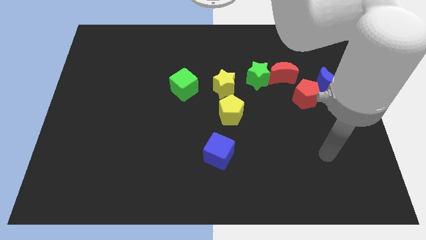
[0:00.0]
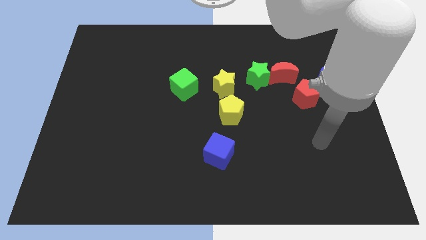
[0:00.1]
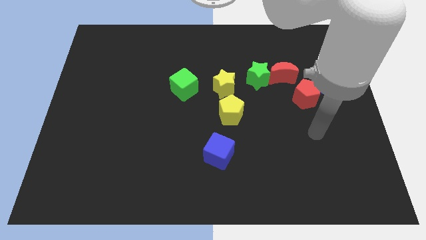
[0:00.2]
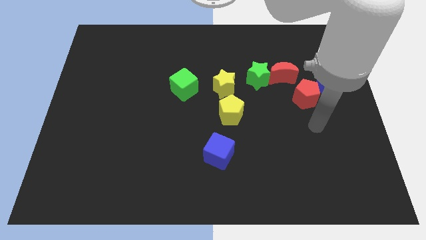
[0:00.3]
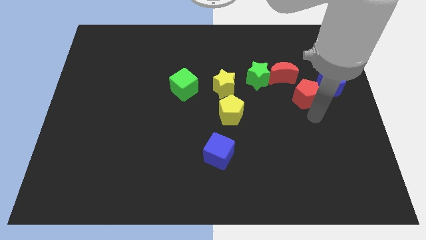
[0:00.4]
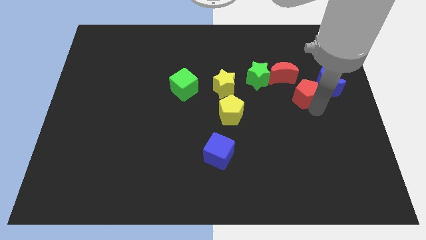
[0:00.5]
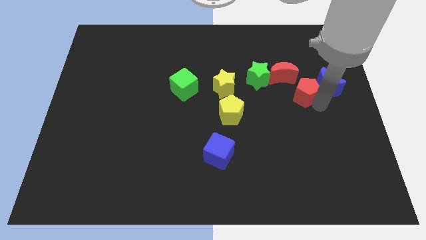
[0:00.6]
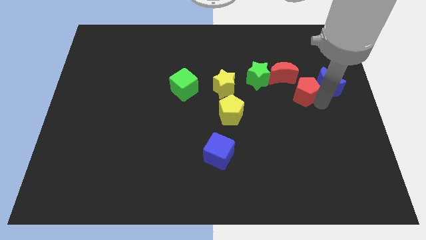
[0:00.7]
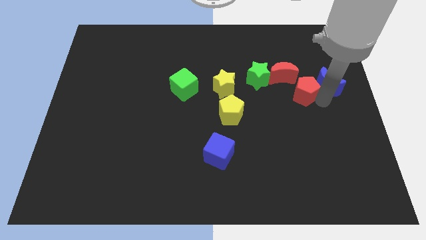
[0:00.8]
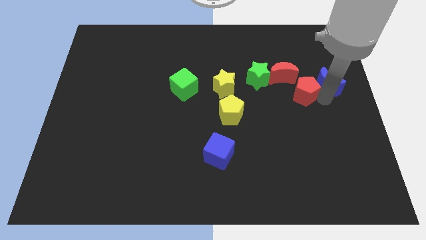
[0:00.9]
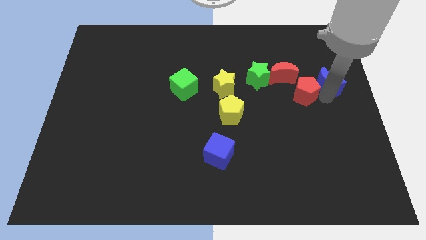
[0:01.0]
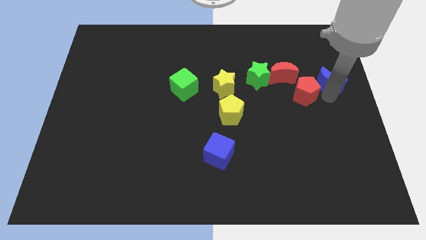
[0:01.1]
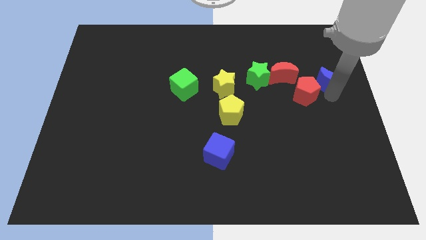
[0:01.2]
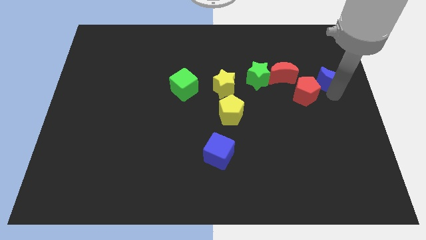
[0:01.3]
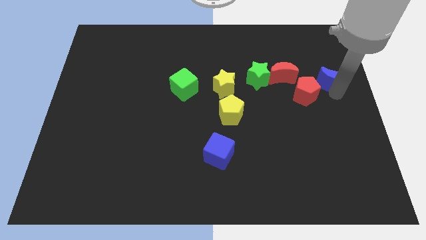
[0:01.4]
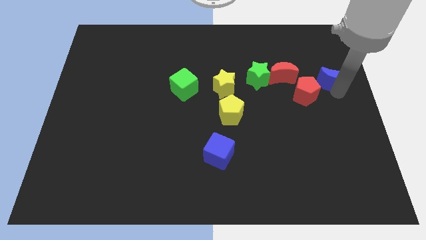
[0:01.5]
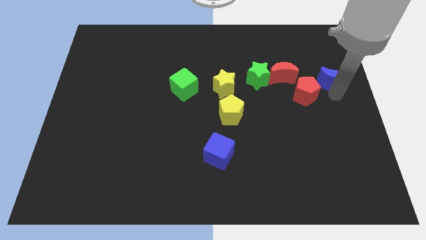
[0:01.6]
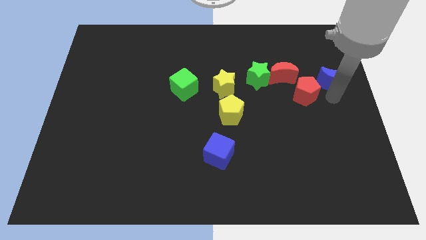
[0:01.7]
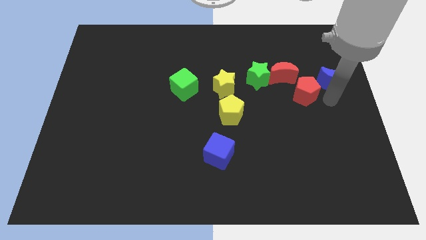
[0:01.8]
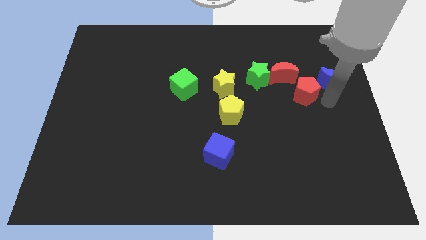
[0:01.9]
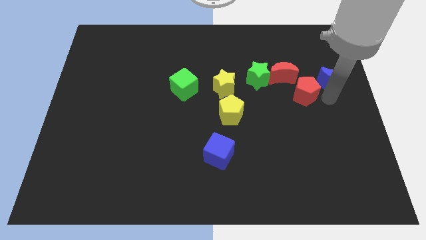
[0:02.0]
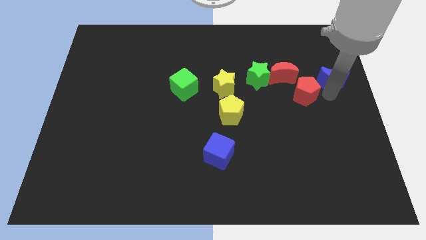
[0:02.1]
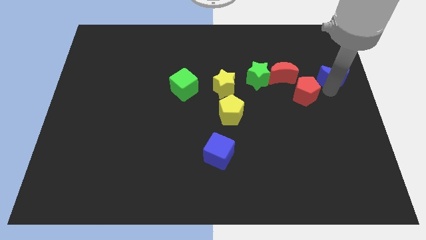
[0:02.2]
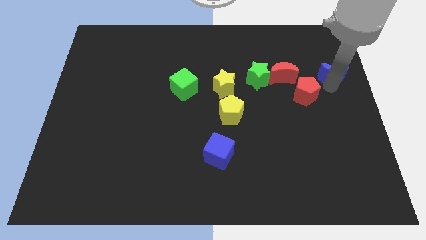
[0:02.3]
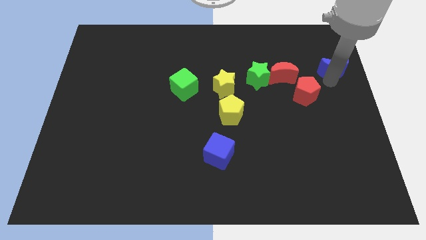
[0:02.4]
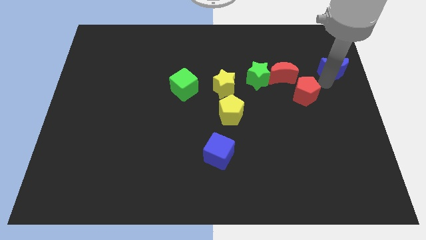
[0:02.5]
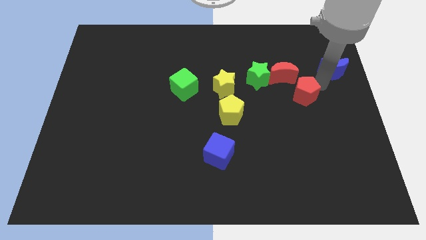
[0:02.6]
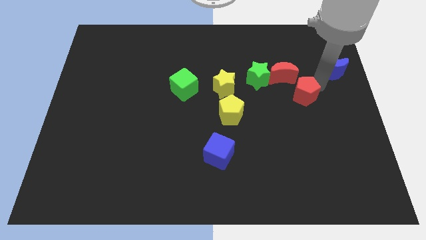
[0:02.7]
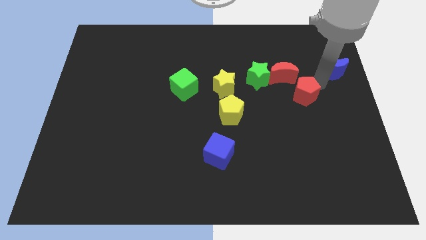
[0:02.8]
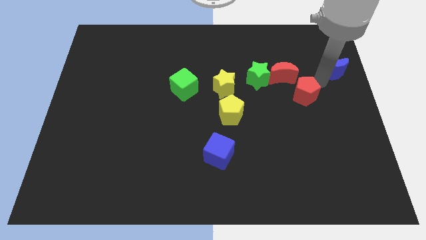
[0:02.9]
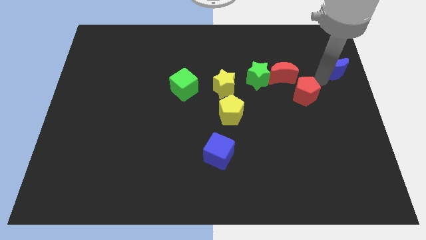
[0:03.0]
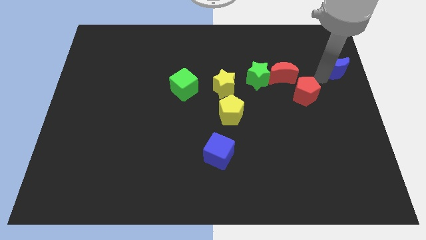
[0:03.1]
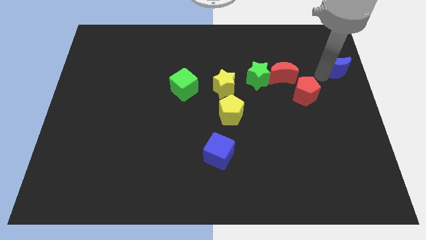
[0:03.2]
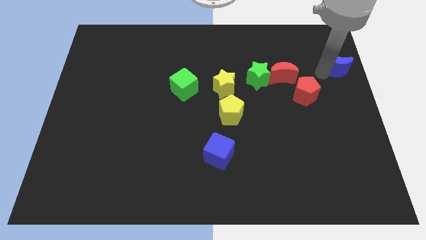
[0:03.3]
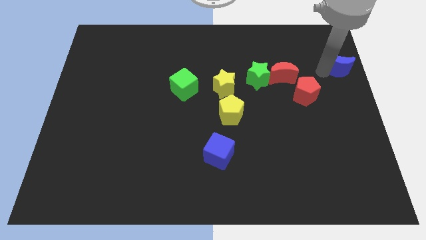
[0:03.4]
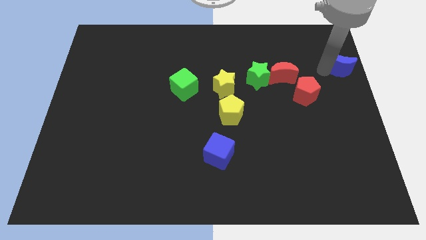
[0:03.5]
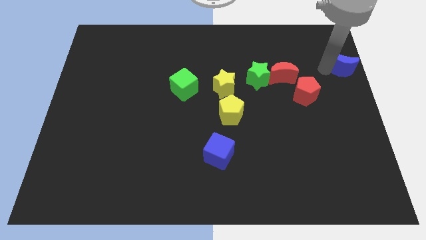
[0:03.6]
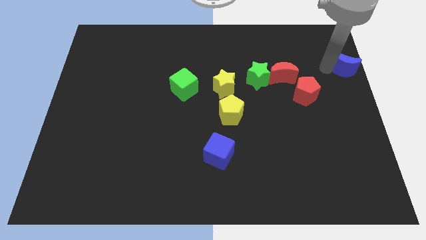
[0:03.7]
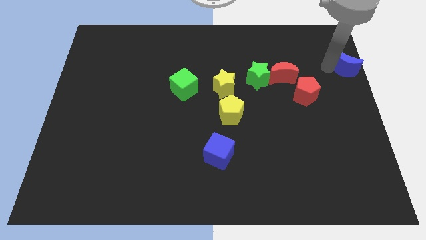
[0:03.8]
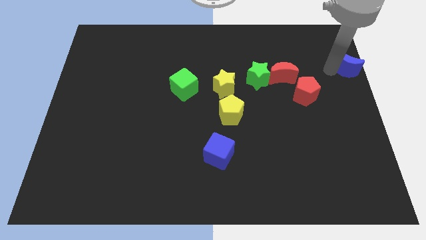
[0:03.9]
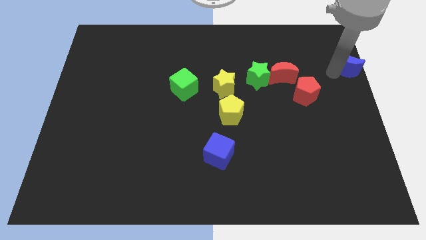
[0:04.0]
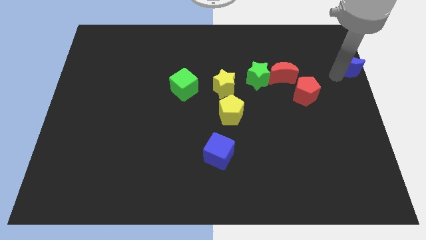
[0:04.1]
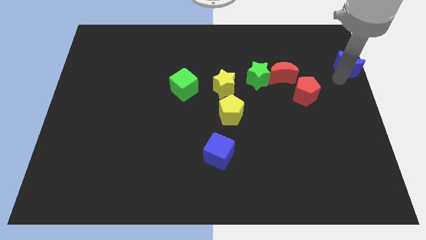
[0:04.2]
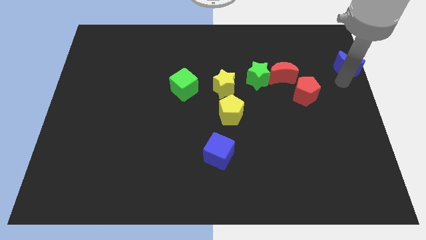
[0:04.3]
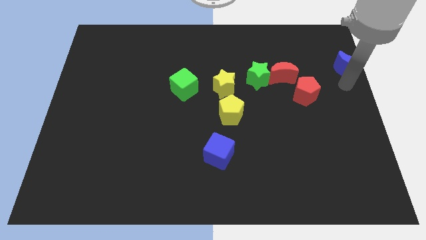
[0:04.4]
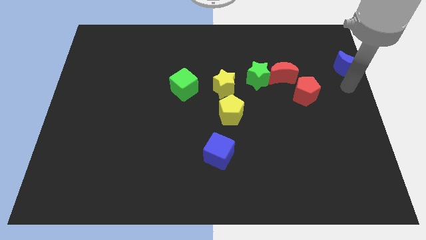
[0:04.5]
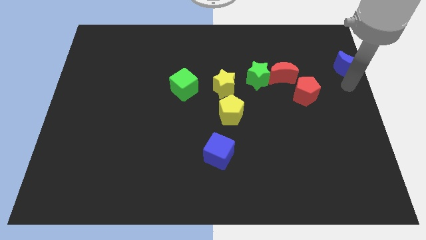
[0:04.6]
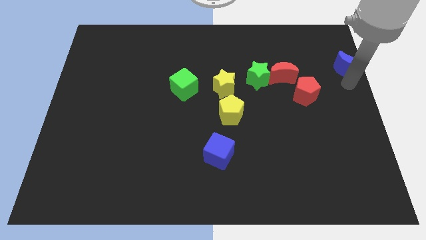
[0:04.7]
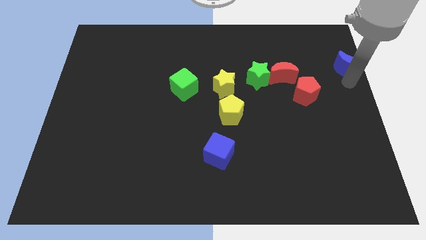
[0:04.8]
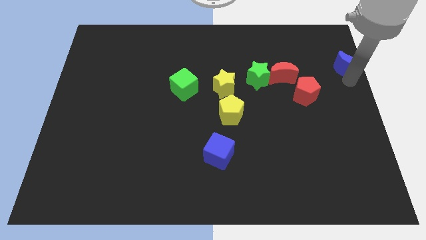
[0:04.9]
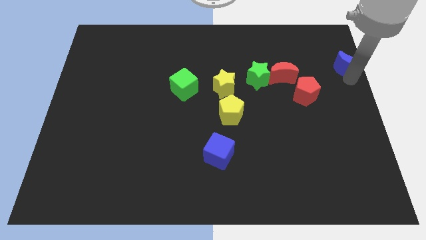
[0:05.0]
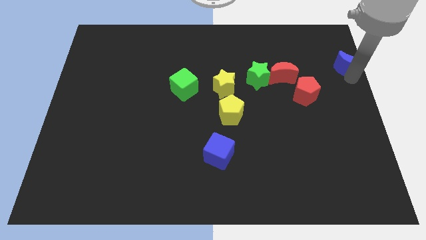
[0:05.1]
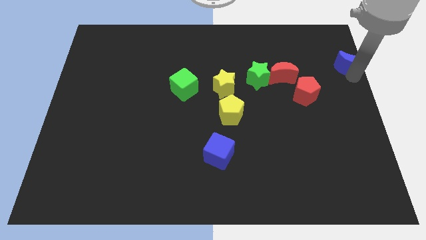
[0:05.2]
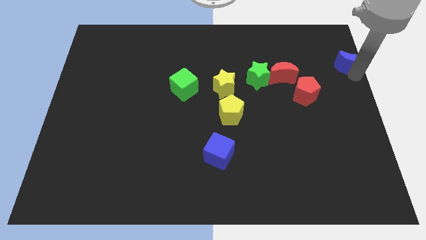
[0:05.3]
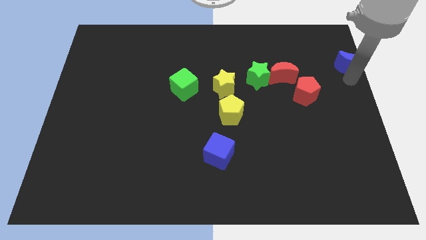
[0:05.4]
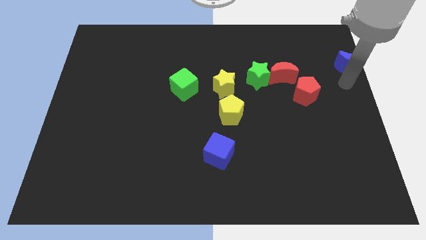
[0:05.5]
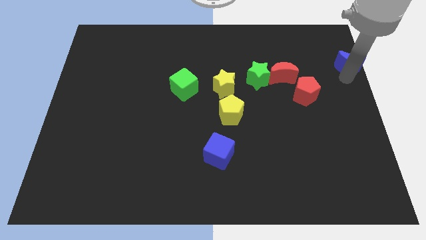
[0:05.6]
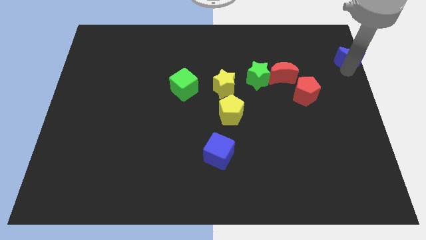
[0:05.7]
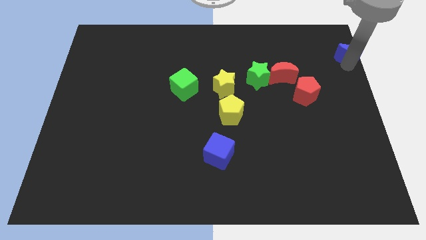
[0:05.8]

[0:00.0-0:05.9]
put the blue moon to the top right

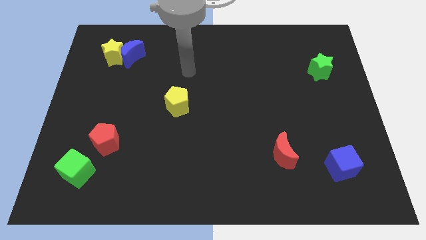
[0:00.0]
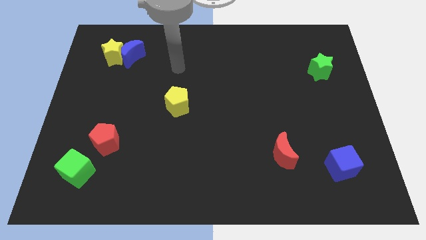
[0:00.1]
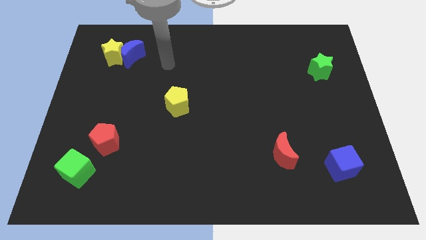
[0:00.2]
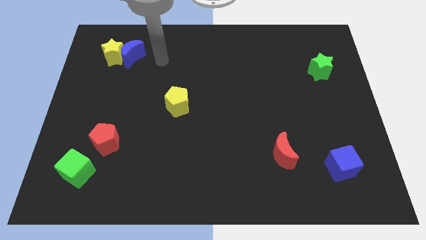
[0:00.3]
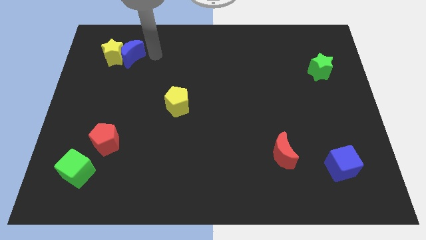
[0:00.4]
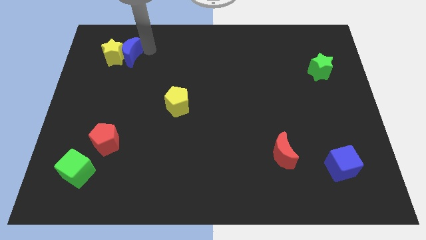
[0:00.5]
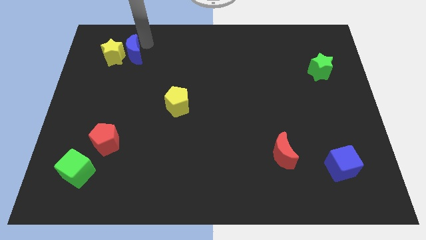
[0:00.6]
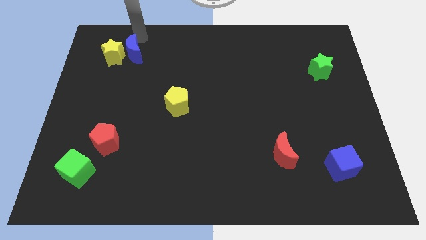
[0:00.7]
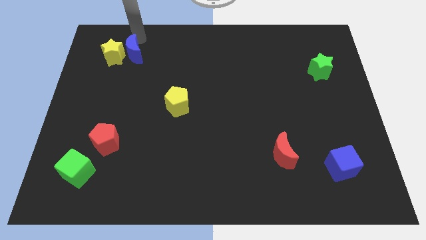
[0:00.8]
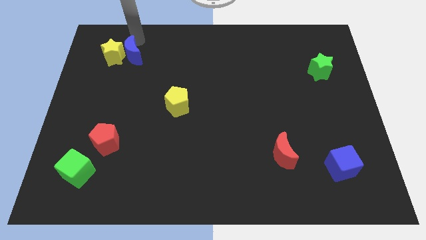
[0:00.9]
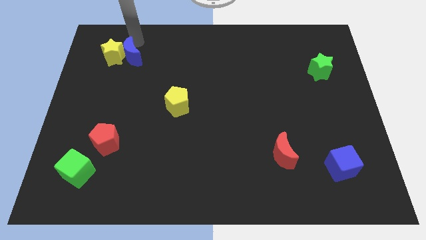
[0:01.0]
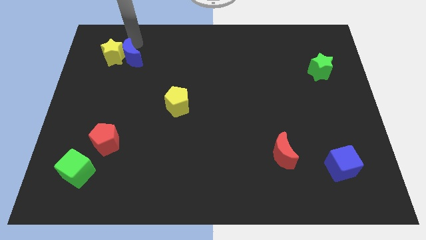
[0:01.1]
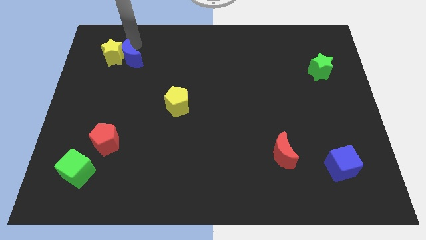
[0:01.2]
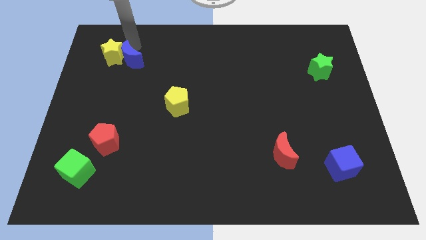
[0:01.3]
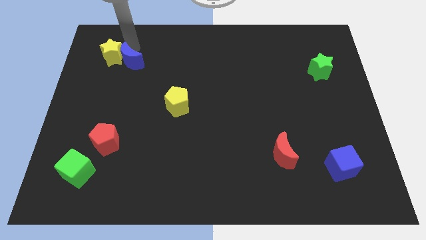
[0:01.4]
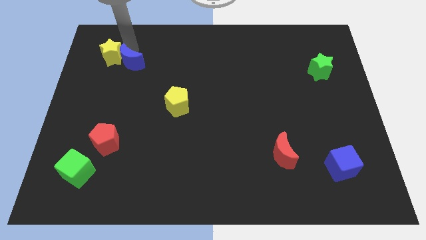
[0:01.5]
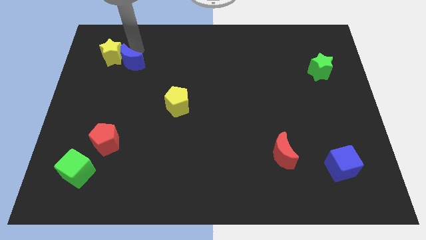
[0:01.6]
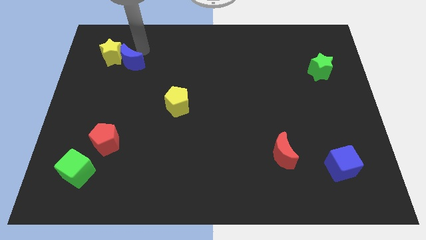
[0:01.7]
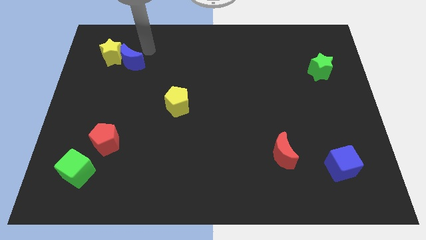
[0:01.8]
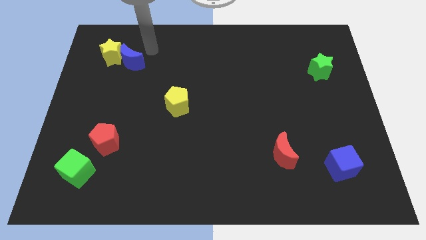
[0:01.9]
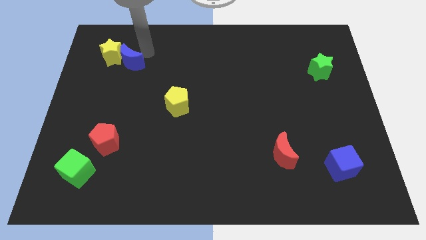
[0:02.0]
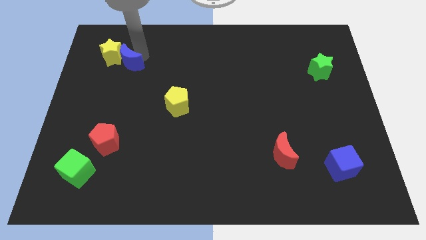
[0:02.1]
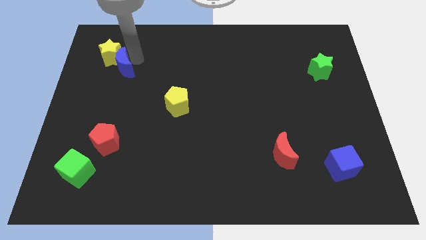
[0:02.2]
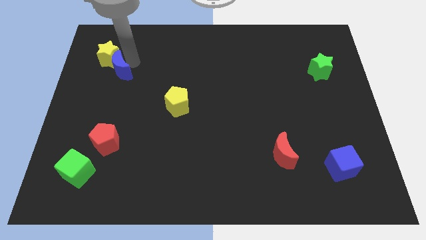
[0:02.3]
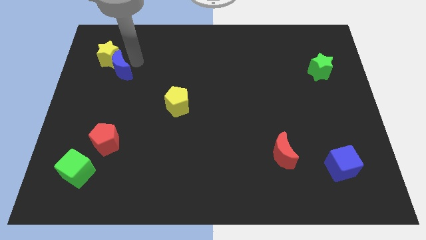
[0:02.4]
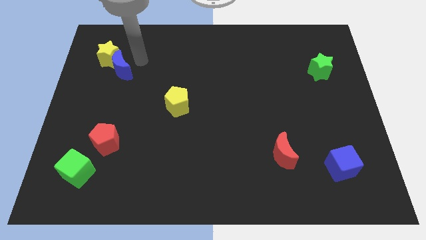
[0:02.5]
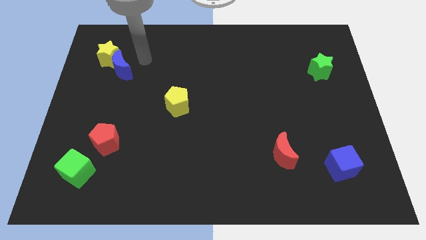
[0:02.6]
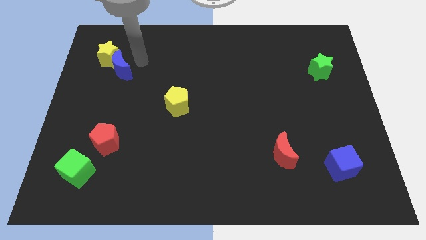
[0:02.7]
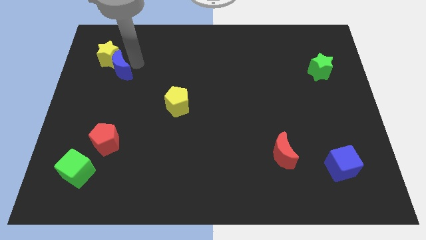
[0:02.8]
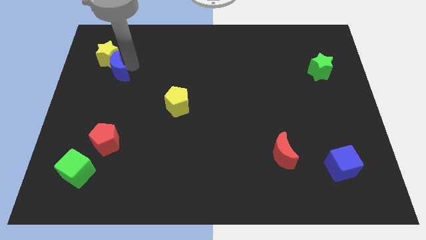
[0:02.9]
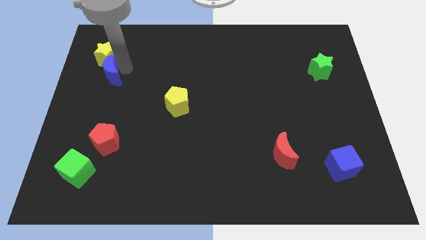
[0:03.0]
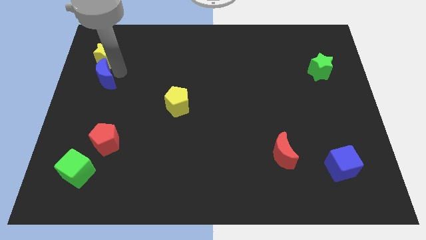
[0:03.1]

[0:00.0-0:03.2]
move the blue moon to the left side of the board
